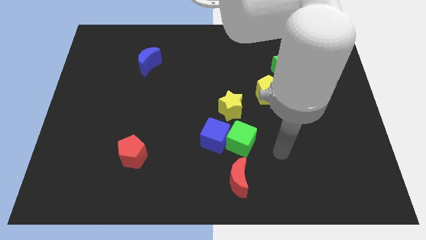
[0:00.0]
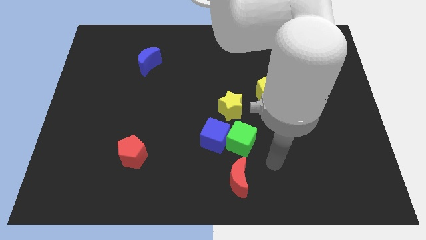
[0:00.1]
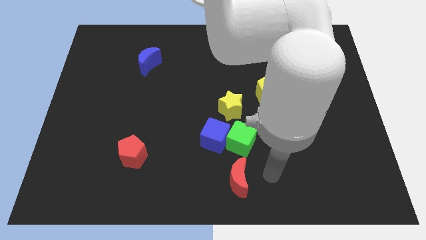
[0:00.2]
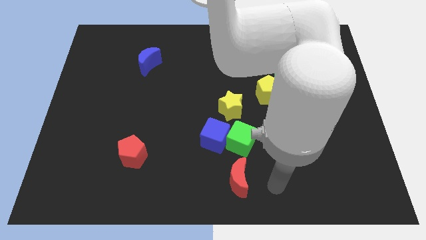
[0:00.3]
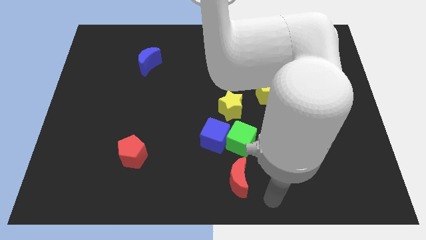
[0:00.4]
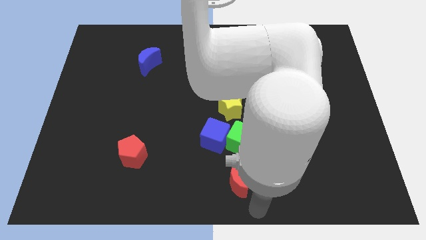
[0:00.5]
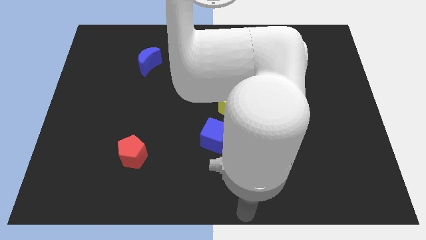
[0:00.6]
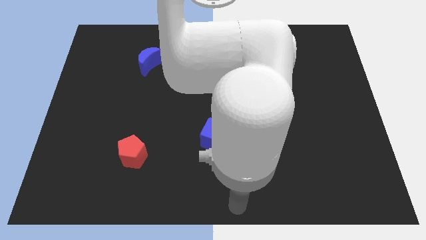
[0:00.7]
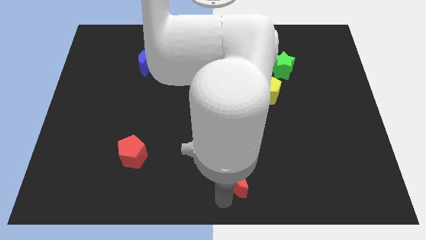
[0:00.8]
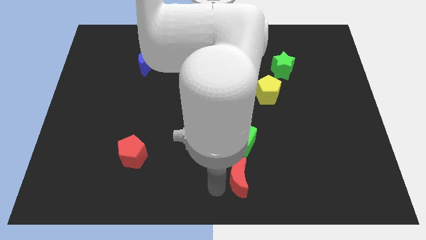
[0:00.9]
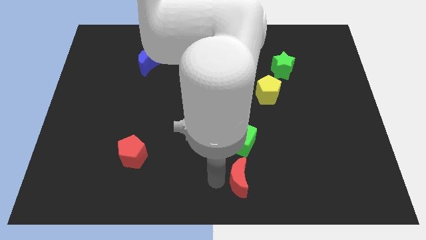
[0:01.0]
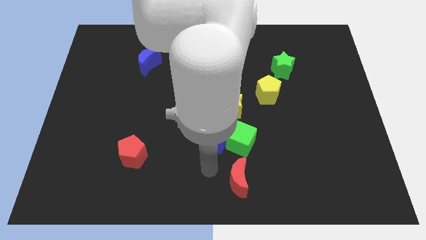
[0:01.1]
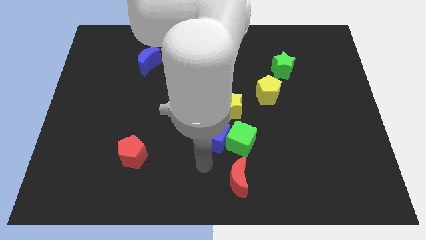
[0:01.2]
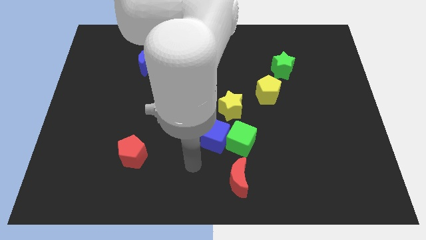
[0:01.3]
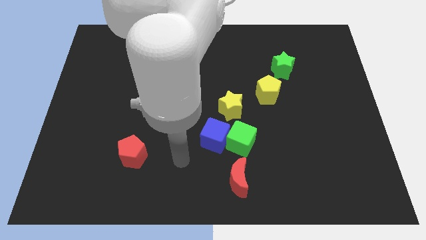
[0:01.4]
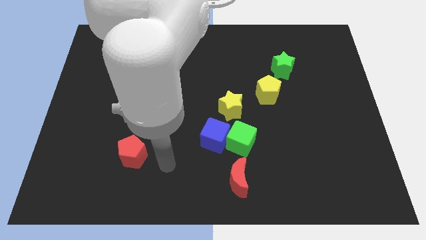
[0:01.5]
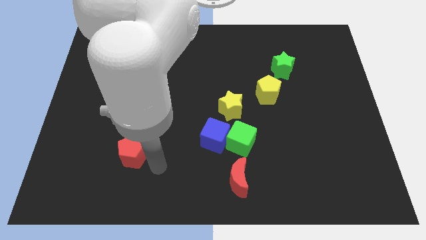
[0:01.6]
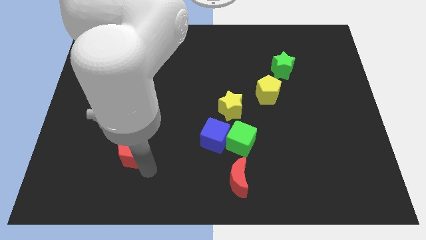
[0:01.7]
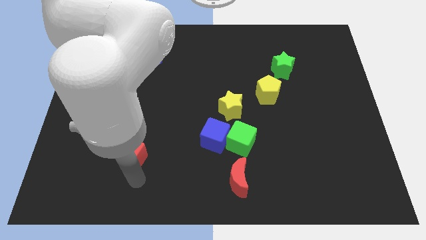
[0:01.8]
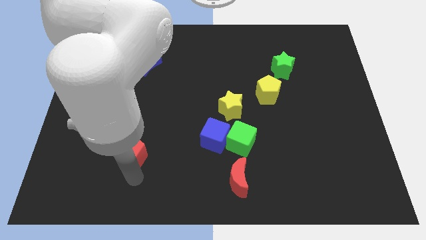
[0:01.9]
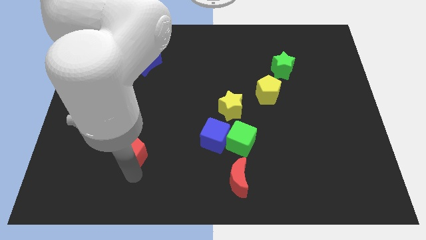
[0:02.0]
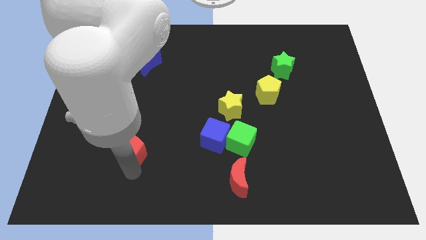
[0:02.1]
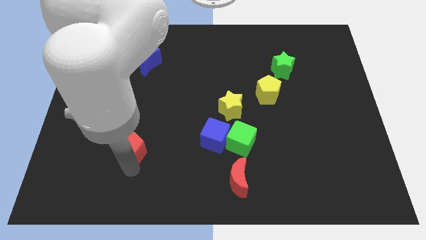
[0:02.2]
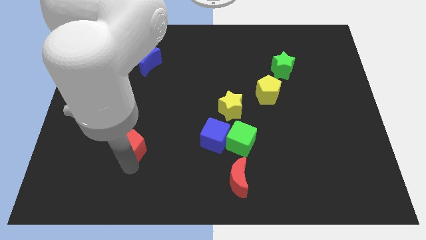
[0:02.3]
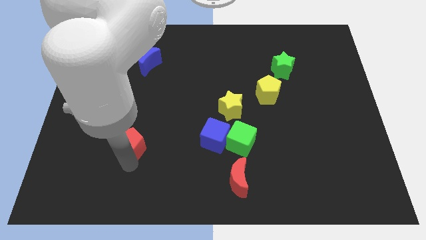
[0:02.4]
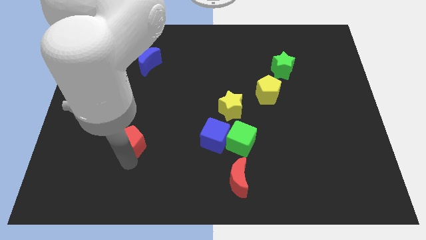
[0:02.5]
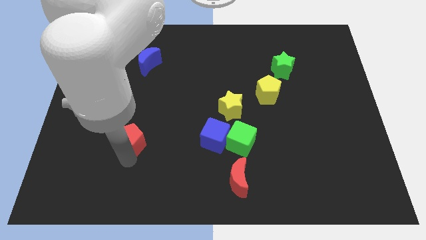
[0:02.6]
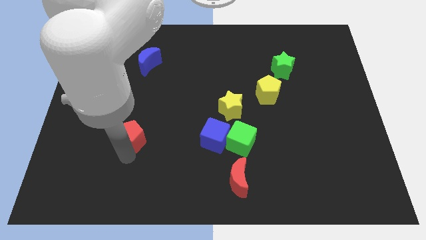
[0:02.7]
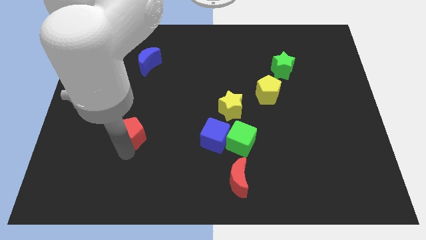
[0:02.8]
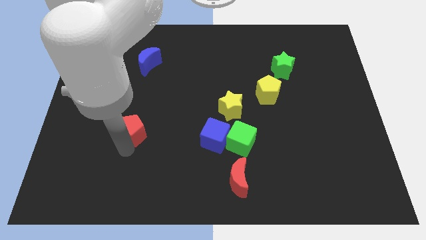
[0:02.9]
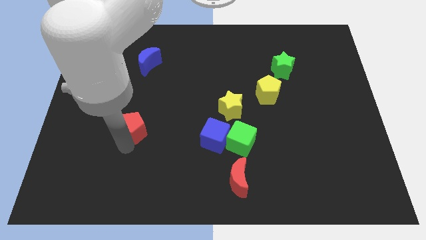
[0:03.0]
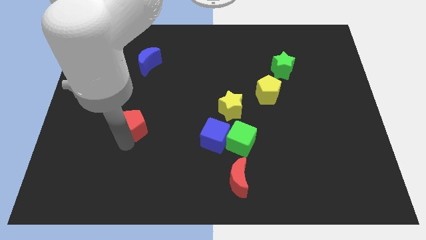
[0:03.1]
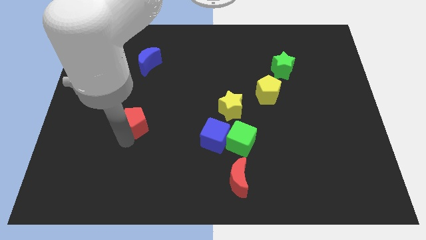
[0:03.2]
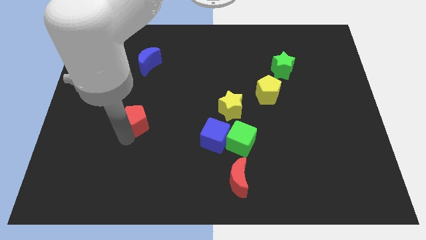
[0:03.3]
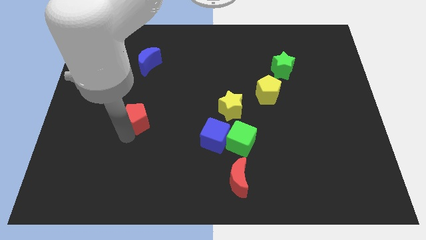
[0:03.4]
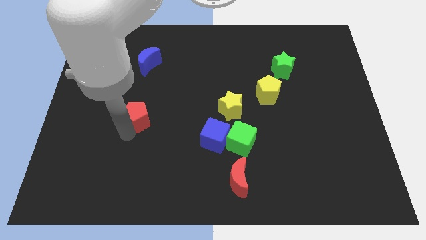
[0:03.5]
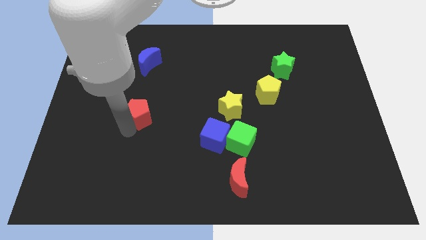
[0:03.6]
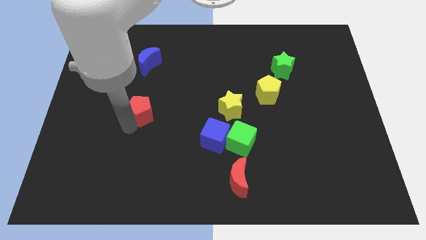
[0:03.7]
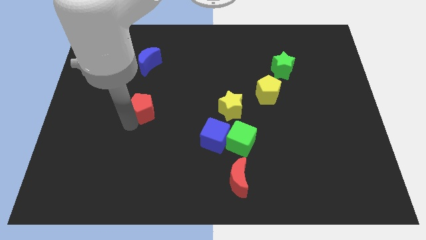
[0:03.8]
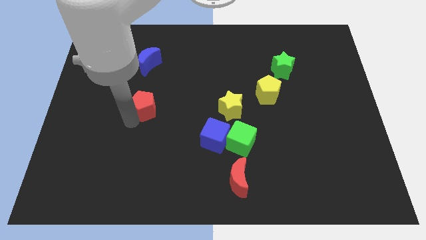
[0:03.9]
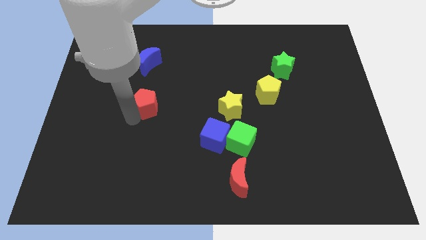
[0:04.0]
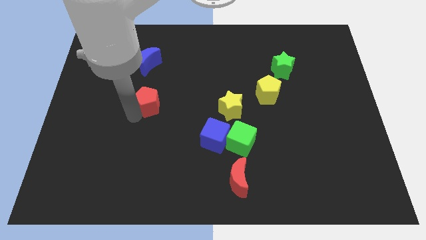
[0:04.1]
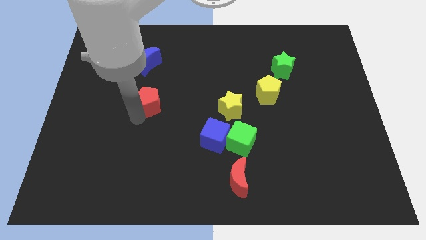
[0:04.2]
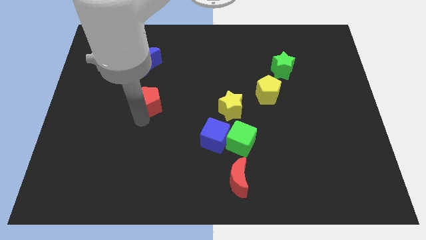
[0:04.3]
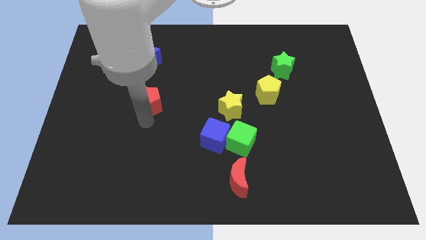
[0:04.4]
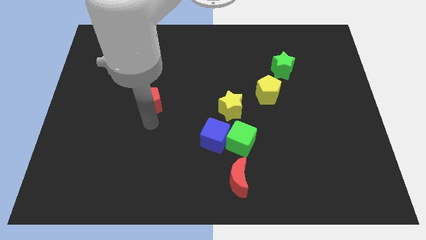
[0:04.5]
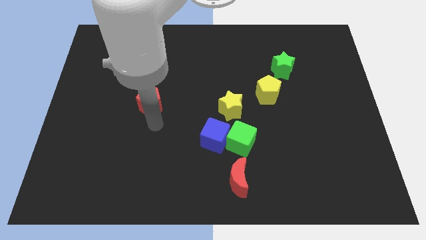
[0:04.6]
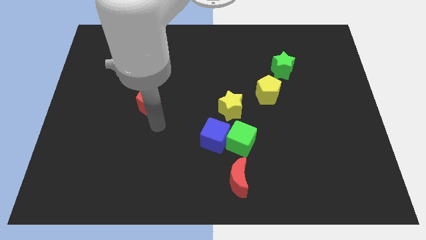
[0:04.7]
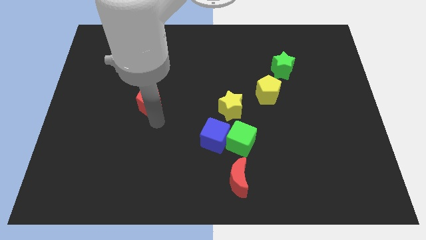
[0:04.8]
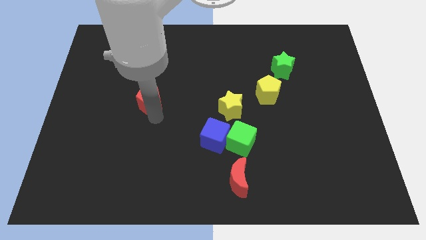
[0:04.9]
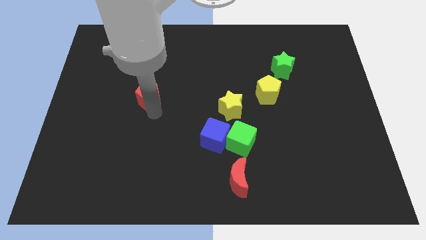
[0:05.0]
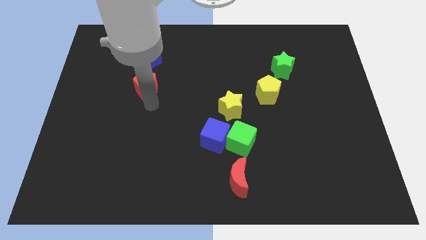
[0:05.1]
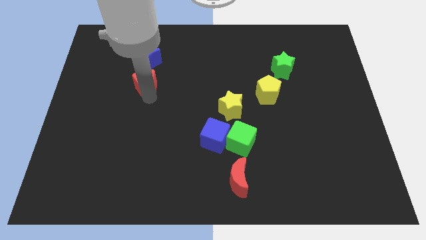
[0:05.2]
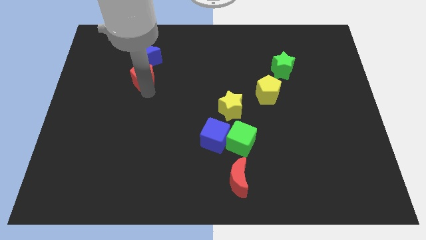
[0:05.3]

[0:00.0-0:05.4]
put the red pentagon next to the blue moon

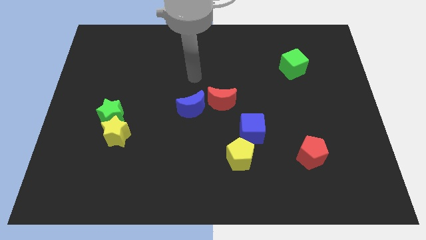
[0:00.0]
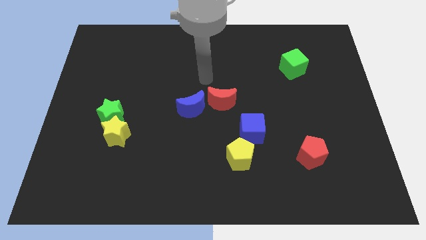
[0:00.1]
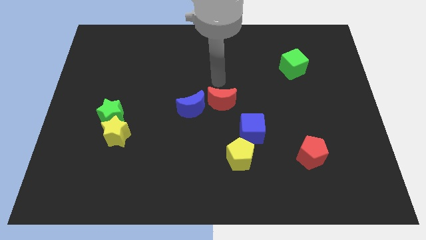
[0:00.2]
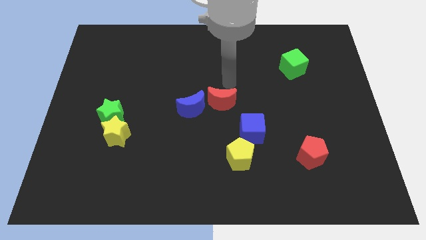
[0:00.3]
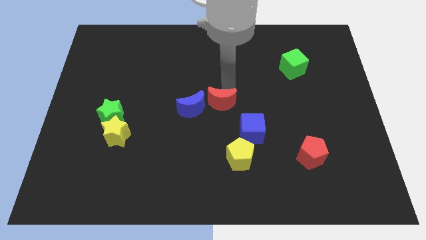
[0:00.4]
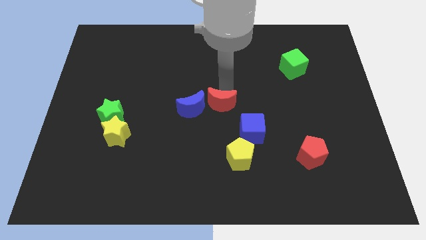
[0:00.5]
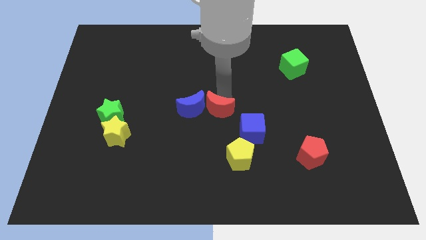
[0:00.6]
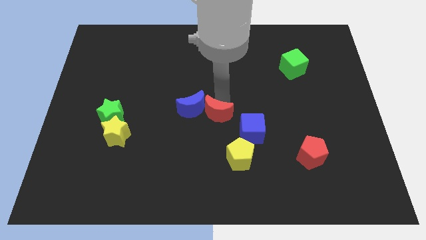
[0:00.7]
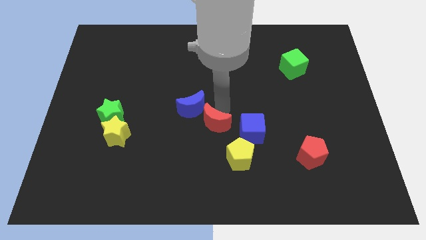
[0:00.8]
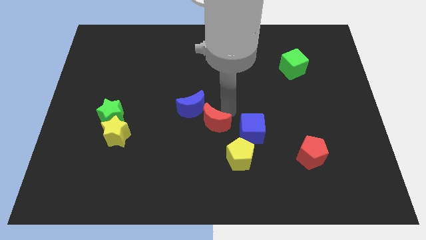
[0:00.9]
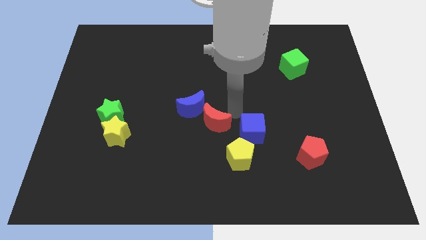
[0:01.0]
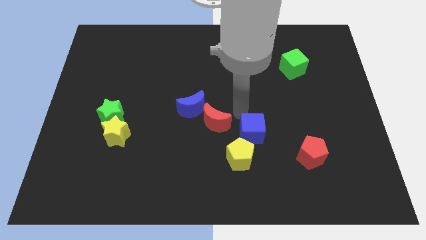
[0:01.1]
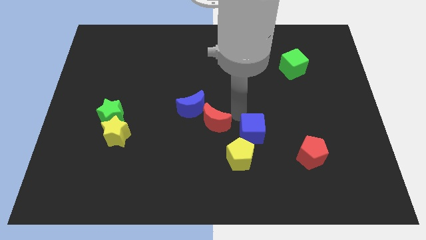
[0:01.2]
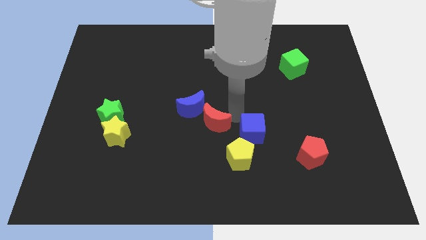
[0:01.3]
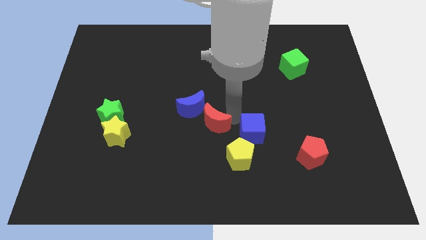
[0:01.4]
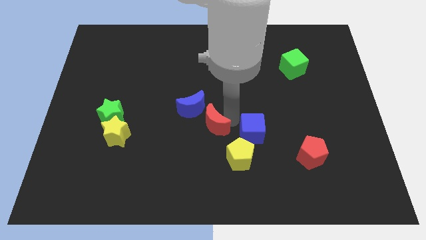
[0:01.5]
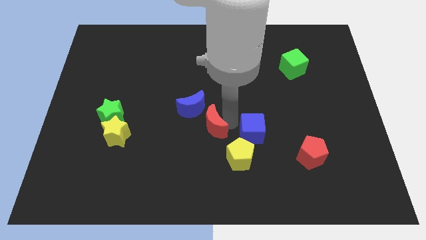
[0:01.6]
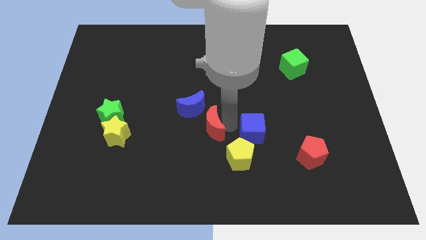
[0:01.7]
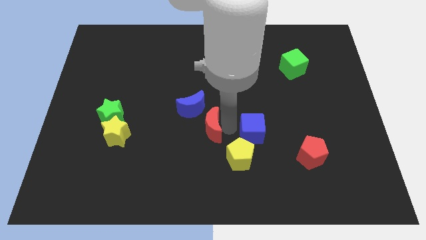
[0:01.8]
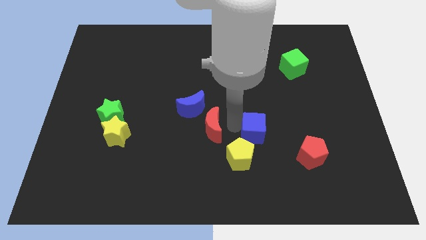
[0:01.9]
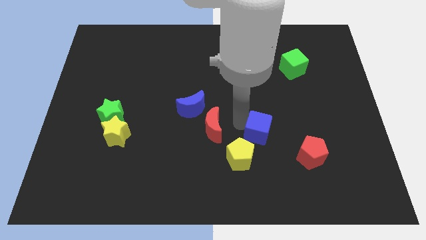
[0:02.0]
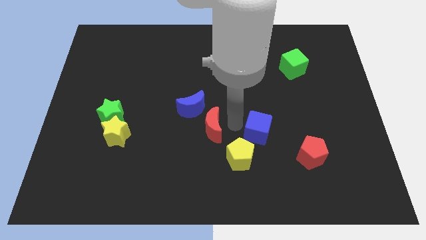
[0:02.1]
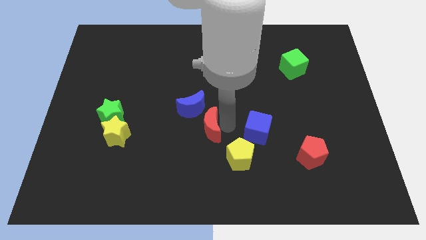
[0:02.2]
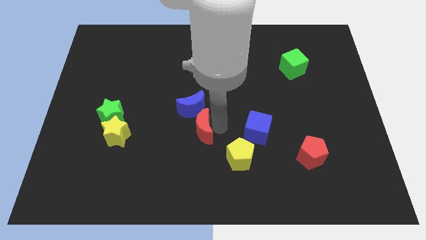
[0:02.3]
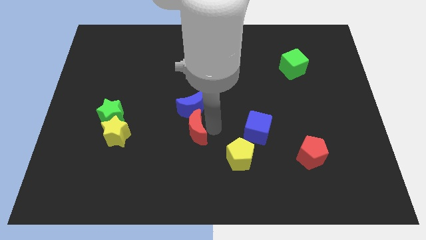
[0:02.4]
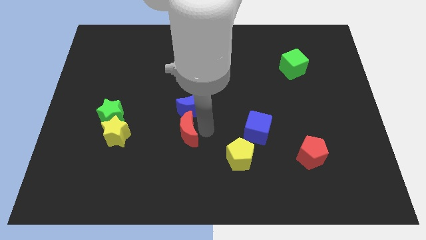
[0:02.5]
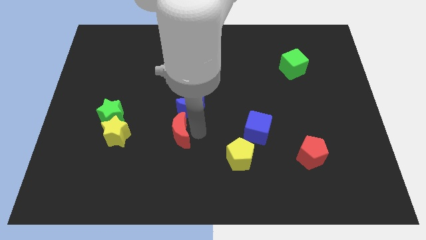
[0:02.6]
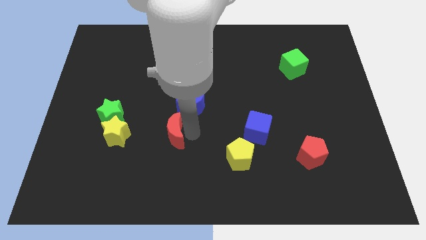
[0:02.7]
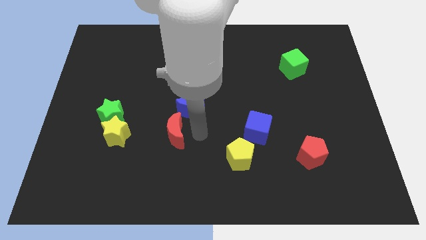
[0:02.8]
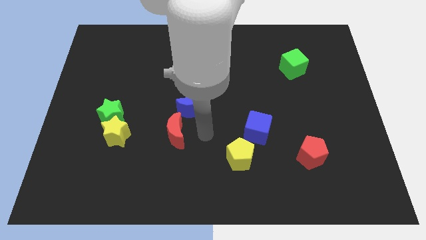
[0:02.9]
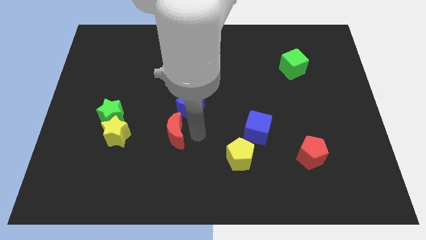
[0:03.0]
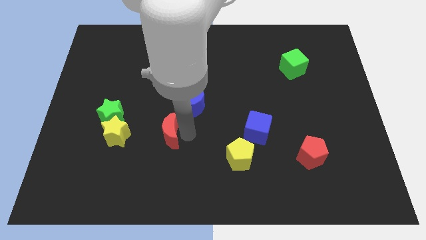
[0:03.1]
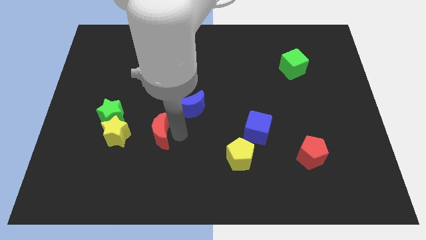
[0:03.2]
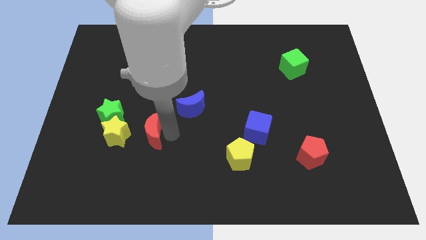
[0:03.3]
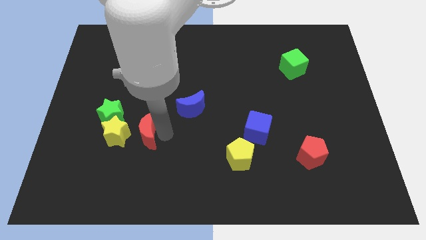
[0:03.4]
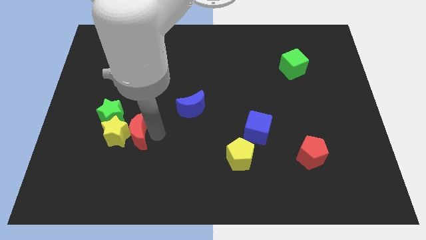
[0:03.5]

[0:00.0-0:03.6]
slide the red moon close to the yellow star
